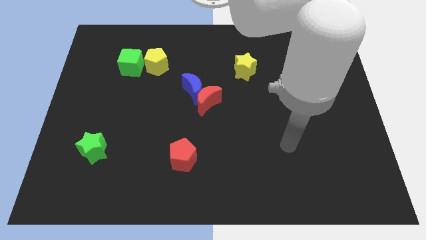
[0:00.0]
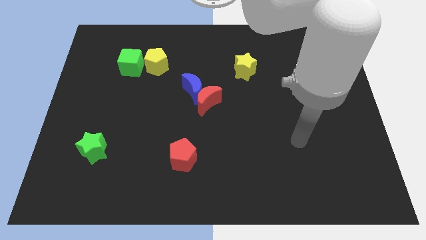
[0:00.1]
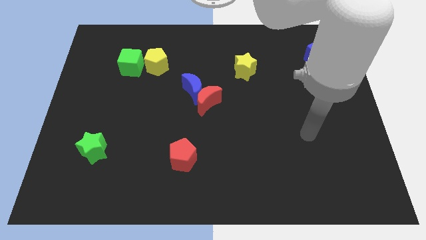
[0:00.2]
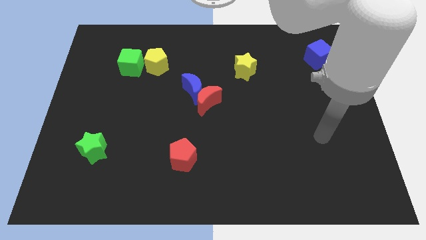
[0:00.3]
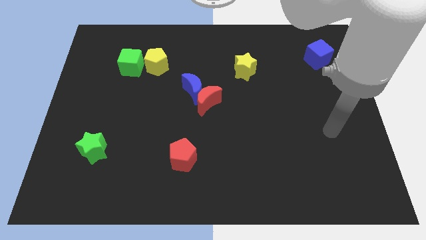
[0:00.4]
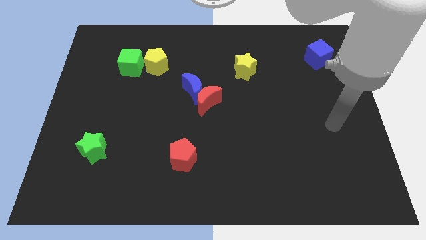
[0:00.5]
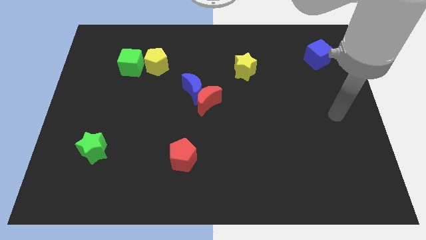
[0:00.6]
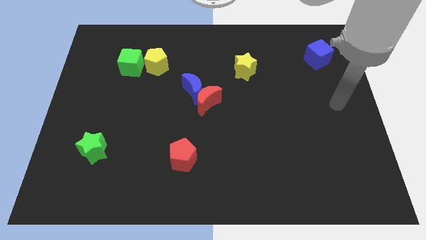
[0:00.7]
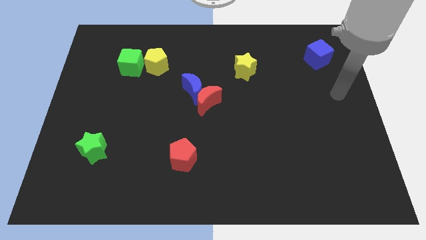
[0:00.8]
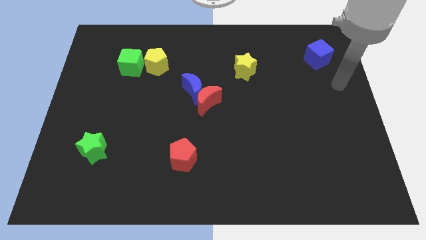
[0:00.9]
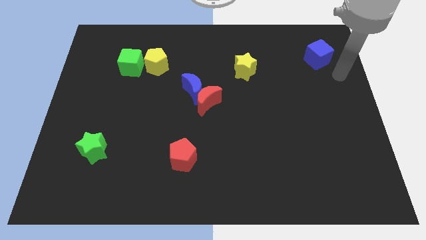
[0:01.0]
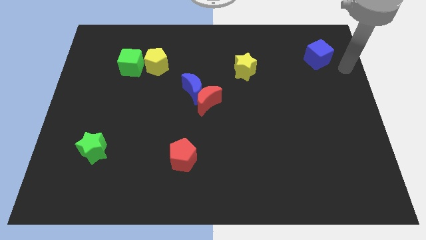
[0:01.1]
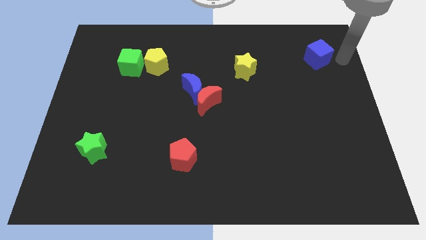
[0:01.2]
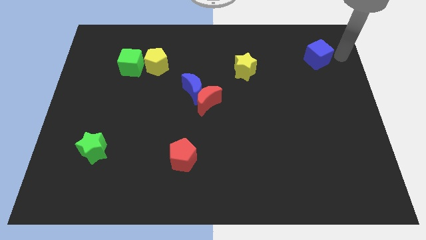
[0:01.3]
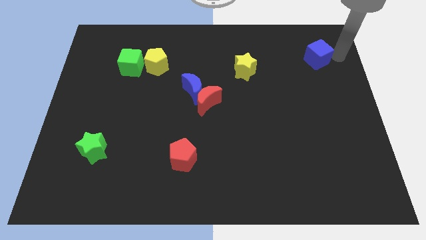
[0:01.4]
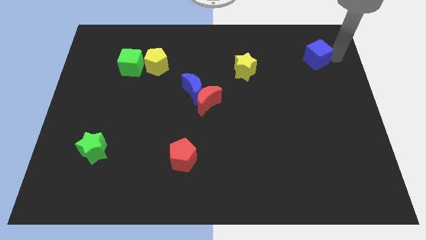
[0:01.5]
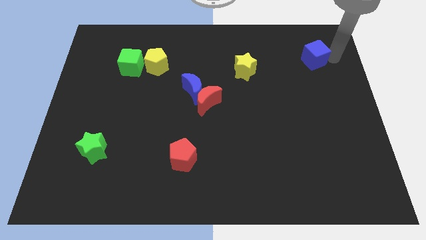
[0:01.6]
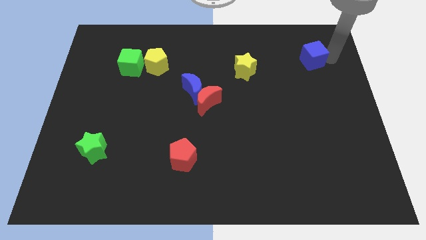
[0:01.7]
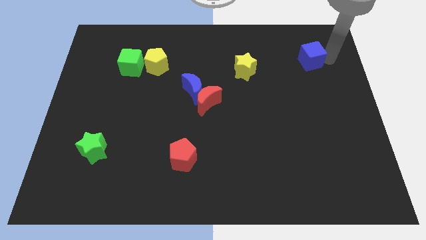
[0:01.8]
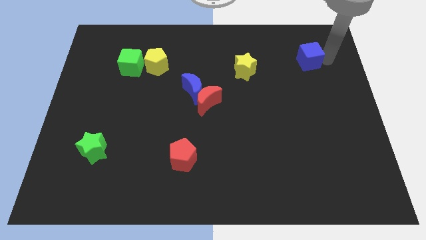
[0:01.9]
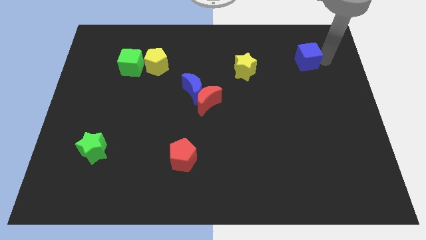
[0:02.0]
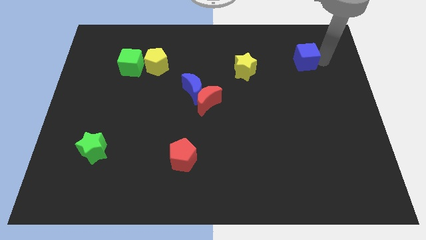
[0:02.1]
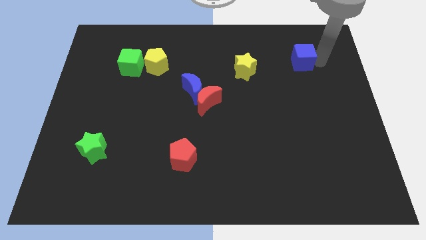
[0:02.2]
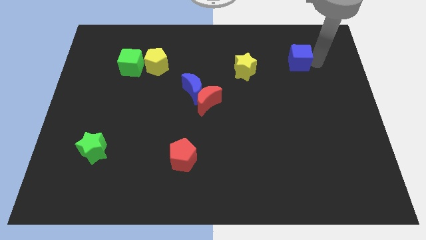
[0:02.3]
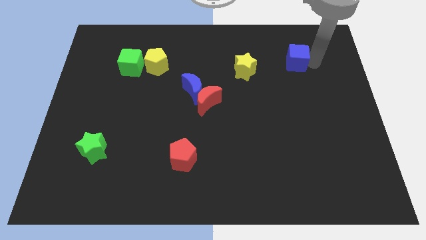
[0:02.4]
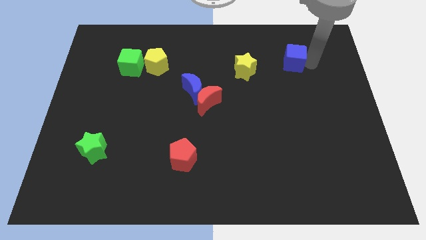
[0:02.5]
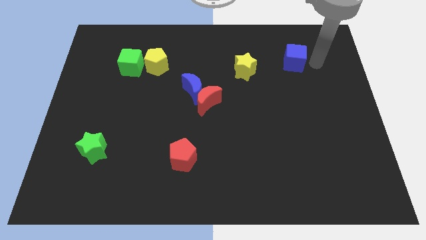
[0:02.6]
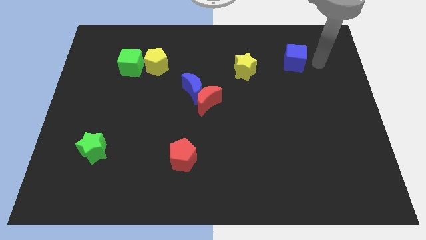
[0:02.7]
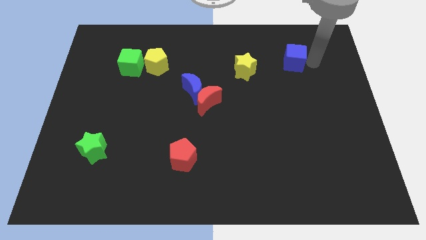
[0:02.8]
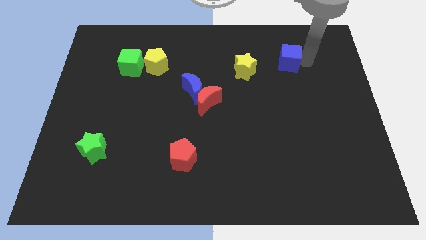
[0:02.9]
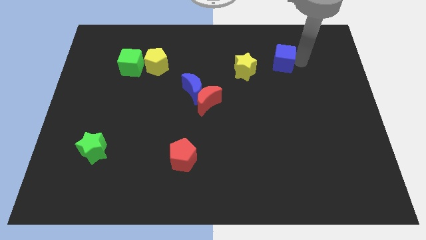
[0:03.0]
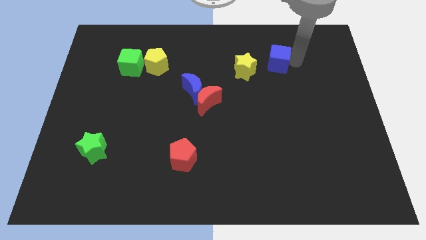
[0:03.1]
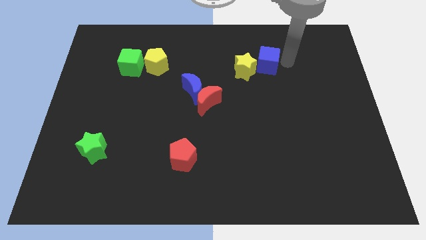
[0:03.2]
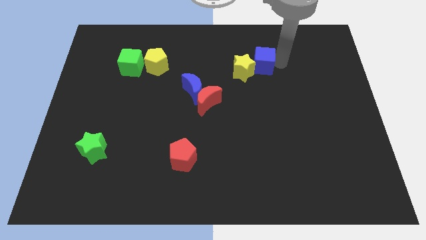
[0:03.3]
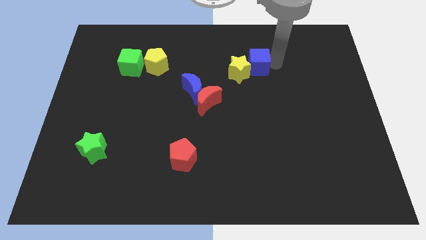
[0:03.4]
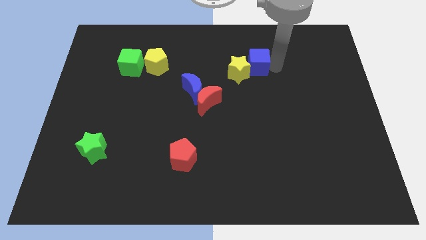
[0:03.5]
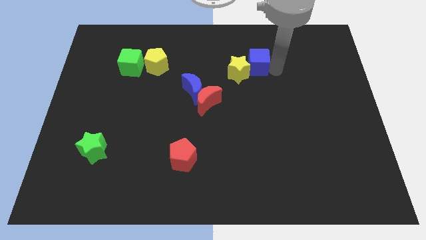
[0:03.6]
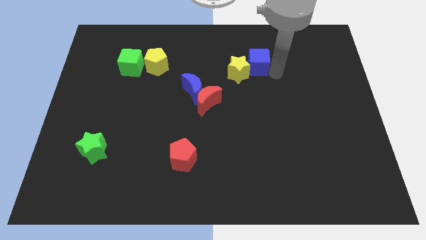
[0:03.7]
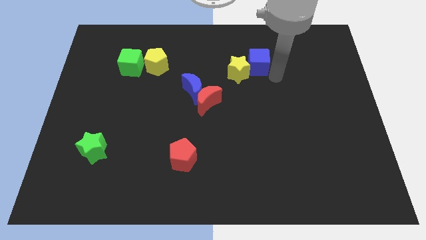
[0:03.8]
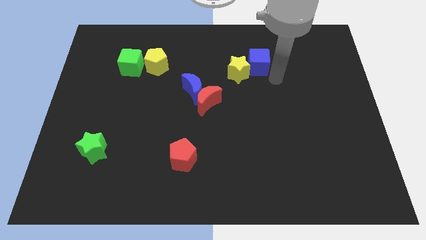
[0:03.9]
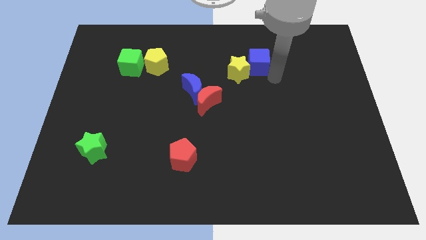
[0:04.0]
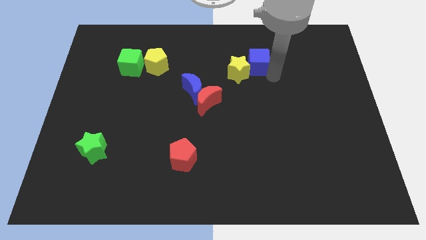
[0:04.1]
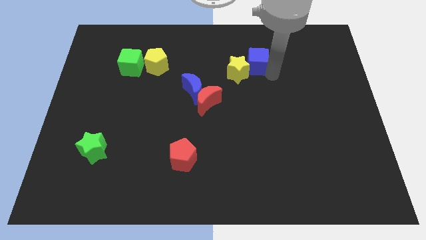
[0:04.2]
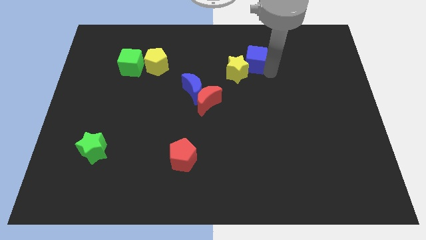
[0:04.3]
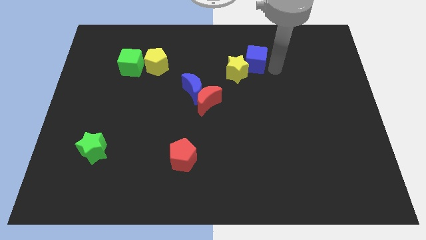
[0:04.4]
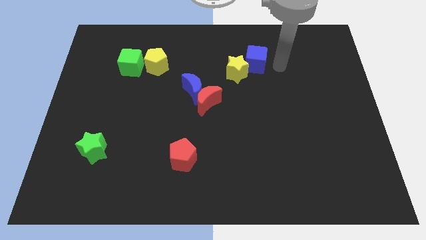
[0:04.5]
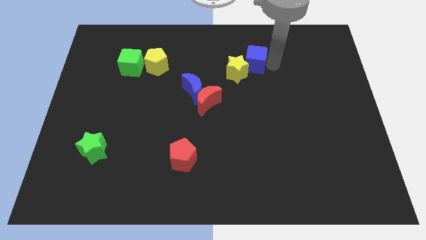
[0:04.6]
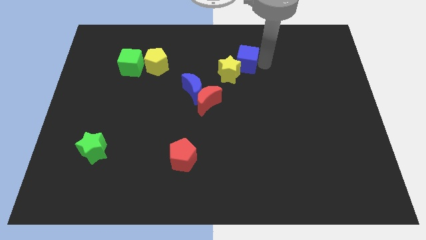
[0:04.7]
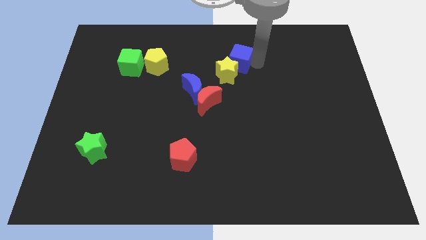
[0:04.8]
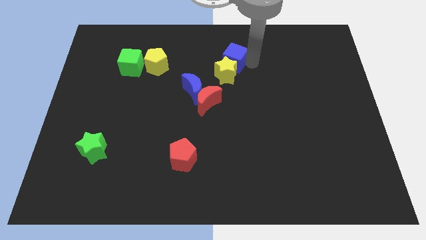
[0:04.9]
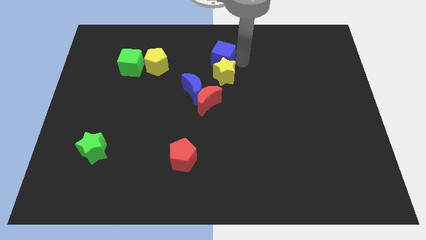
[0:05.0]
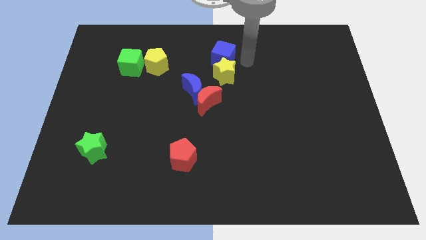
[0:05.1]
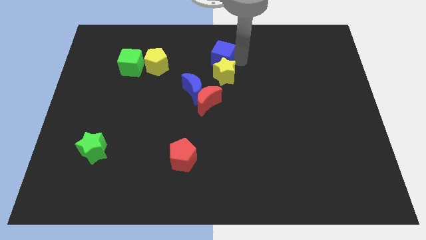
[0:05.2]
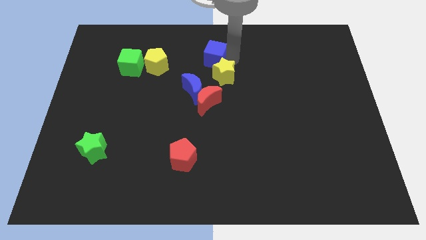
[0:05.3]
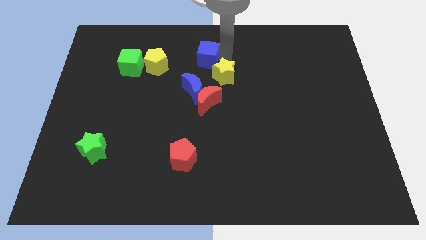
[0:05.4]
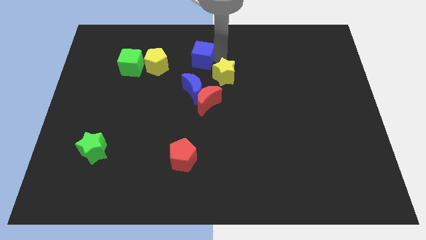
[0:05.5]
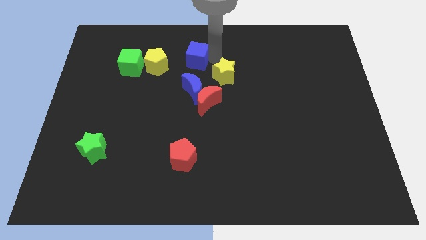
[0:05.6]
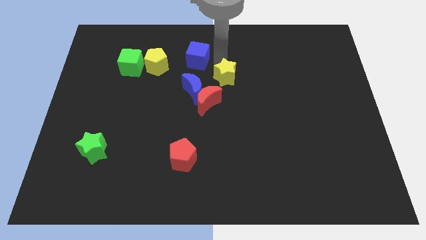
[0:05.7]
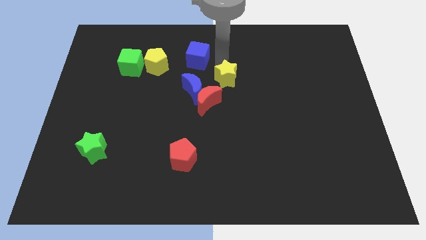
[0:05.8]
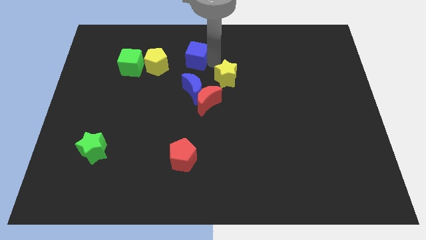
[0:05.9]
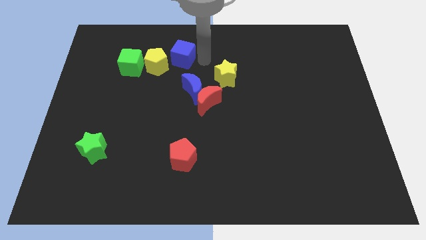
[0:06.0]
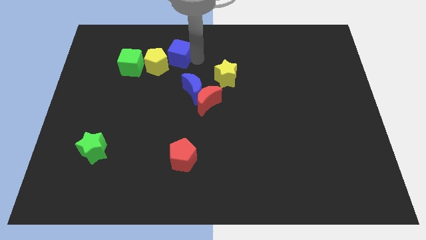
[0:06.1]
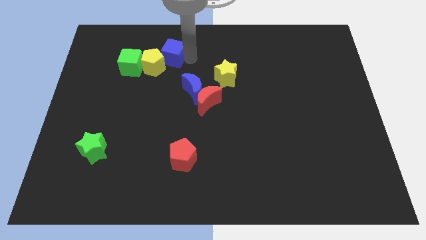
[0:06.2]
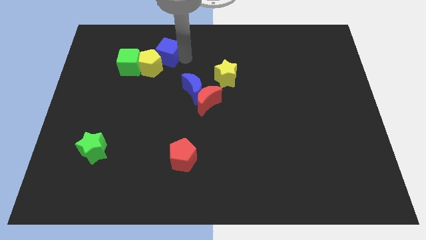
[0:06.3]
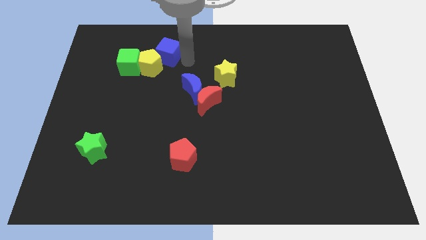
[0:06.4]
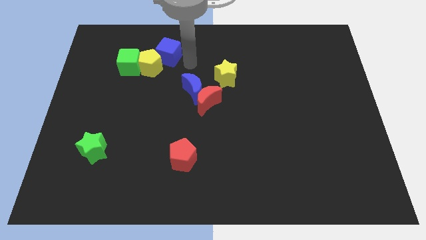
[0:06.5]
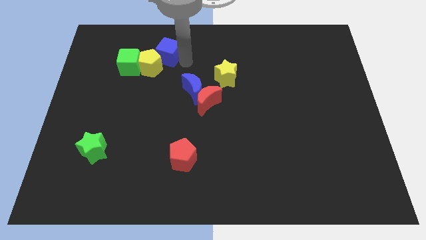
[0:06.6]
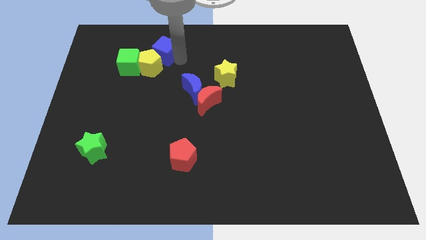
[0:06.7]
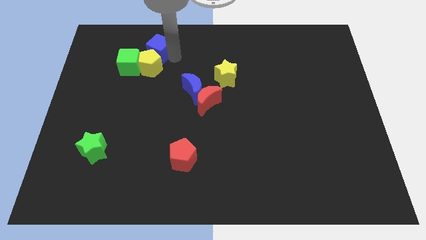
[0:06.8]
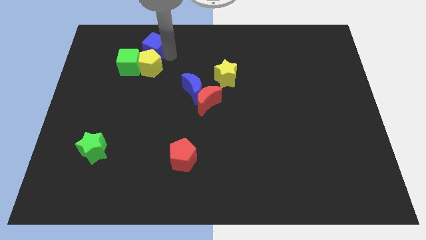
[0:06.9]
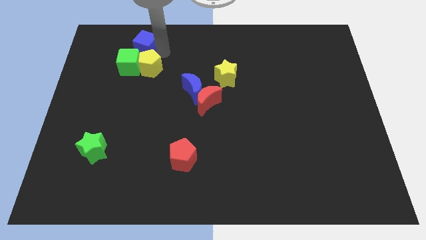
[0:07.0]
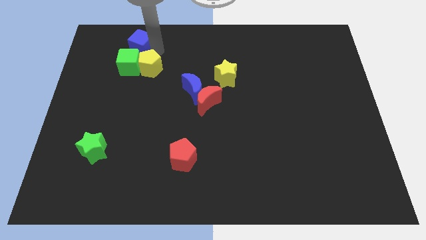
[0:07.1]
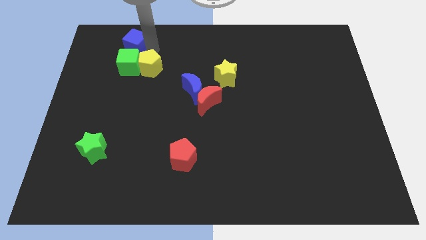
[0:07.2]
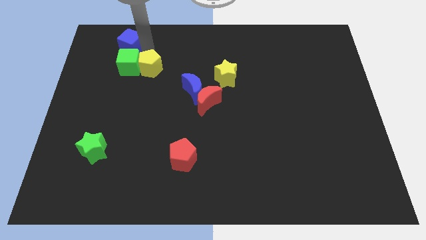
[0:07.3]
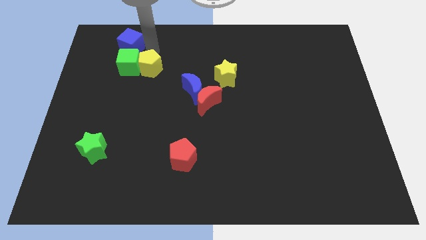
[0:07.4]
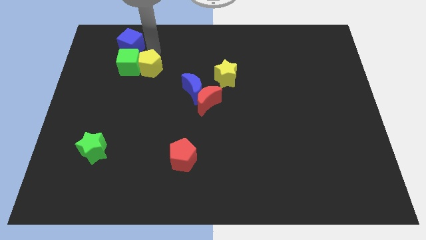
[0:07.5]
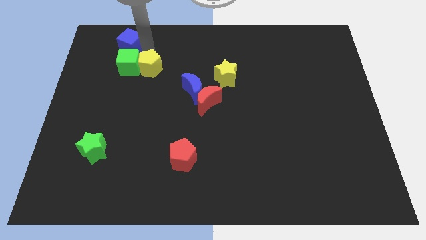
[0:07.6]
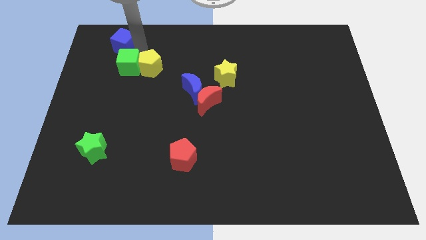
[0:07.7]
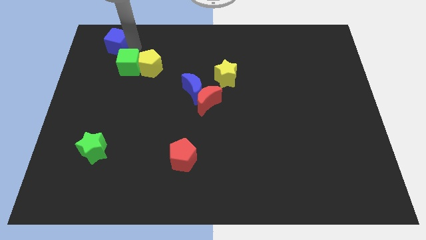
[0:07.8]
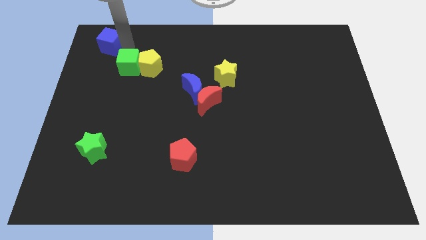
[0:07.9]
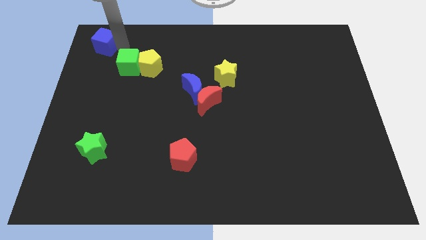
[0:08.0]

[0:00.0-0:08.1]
slide the blue cube to the top left
